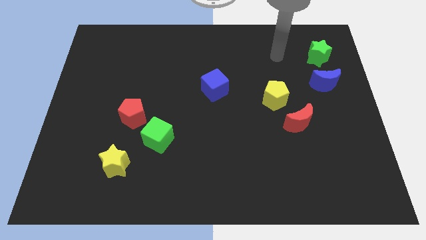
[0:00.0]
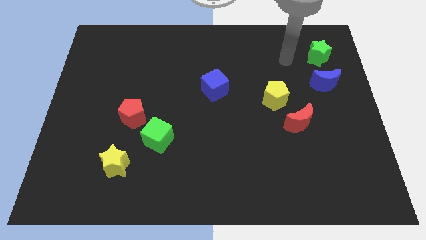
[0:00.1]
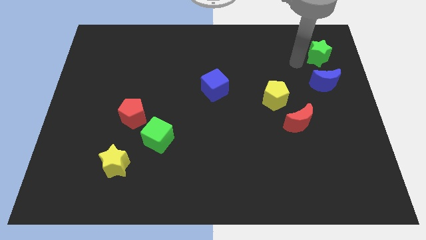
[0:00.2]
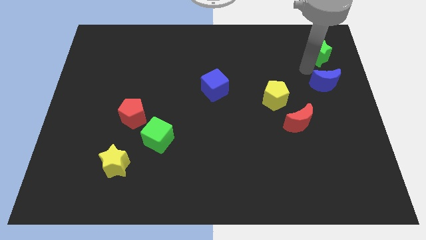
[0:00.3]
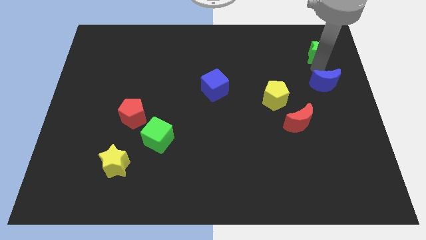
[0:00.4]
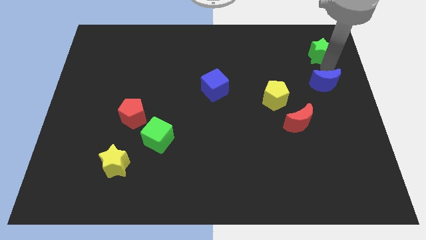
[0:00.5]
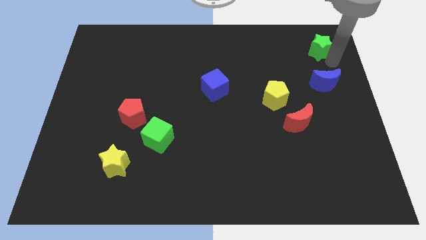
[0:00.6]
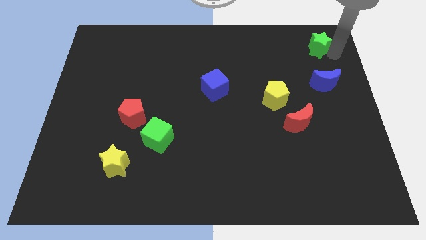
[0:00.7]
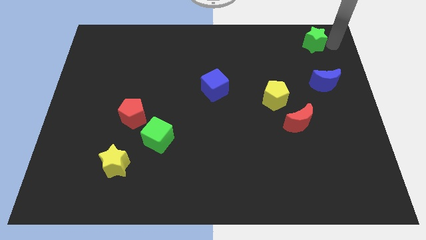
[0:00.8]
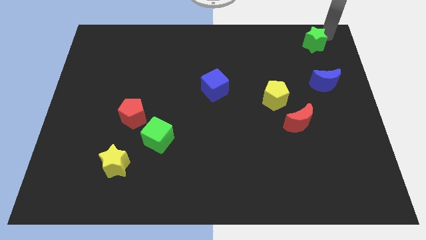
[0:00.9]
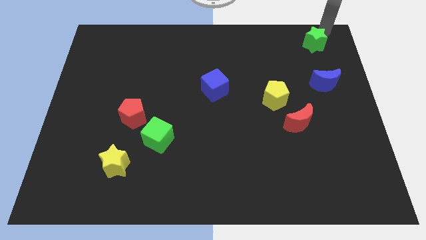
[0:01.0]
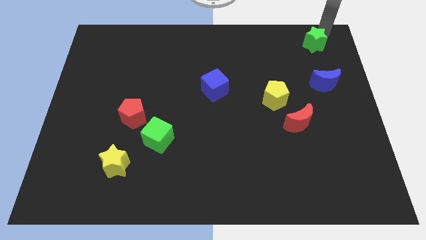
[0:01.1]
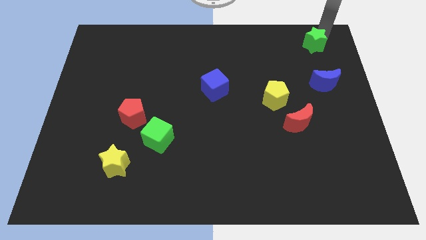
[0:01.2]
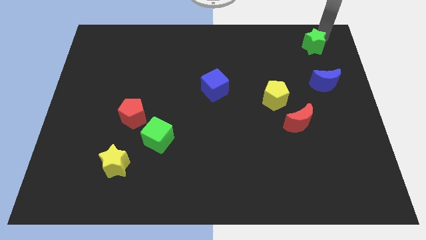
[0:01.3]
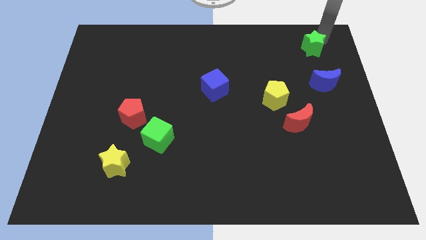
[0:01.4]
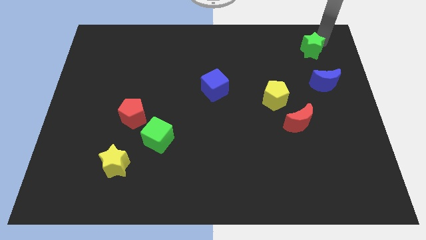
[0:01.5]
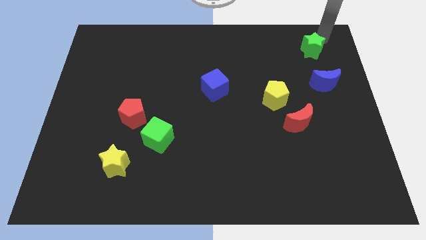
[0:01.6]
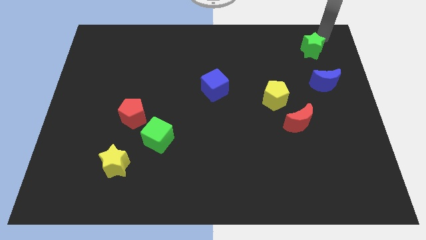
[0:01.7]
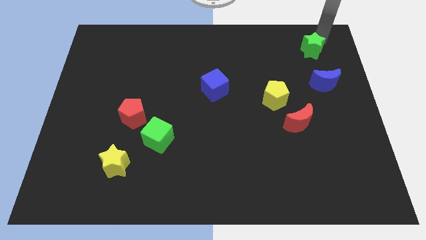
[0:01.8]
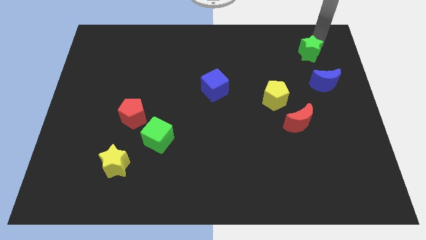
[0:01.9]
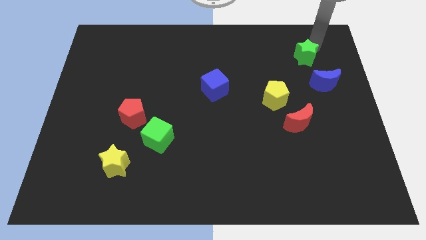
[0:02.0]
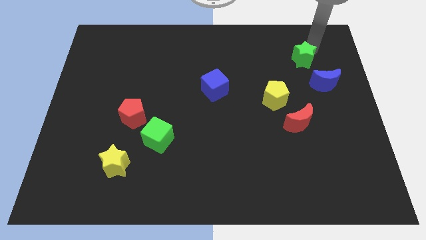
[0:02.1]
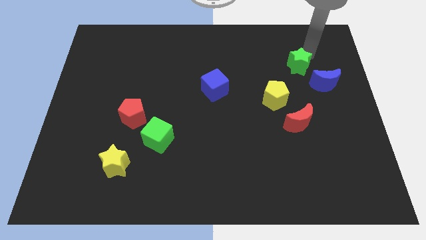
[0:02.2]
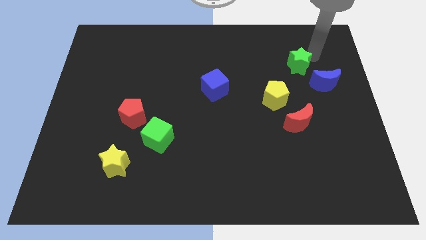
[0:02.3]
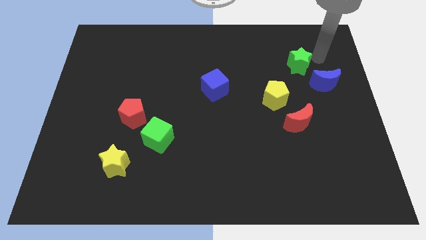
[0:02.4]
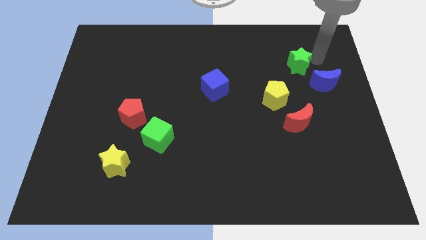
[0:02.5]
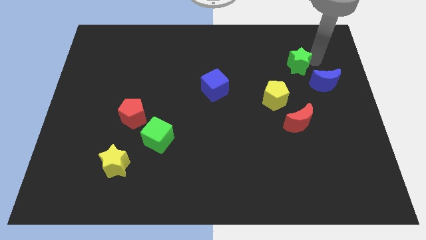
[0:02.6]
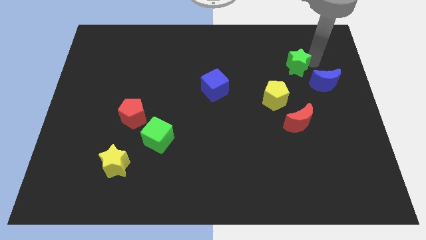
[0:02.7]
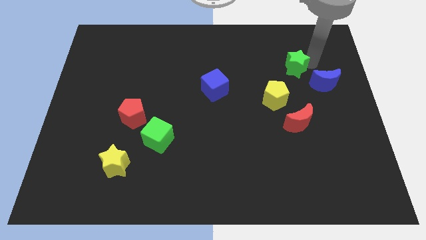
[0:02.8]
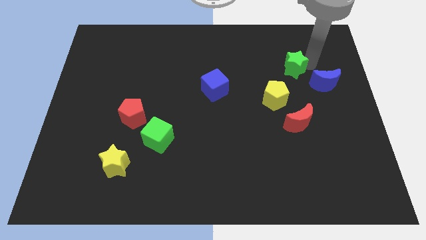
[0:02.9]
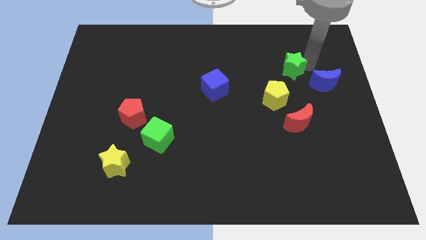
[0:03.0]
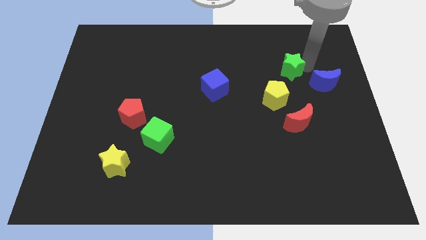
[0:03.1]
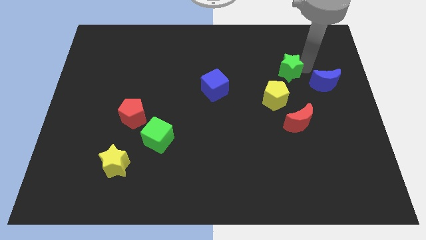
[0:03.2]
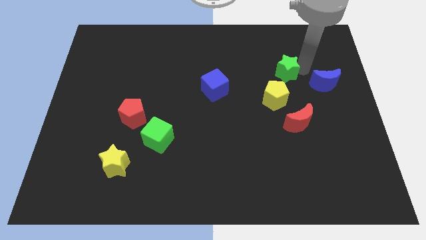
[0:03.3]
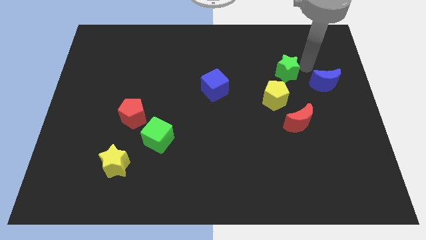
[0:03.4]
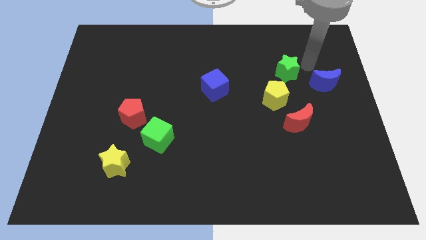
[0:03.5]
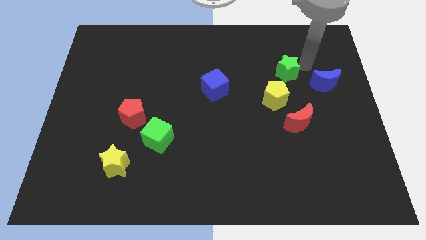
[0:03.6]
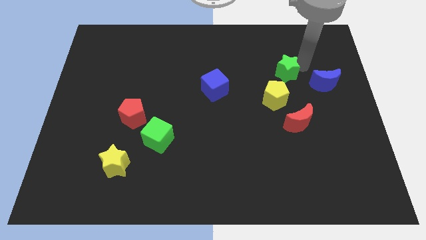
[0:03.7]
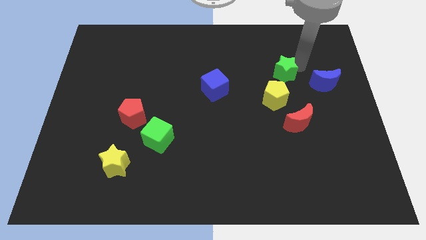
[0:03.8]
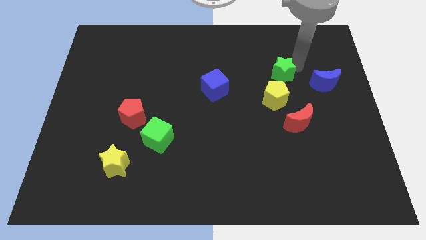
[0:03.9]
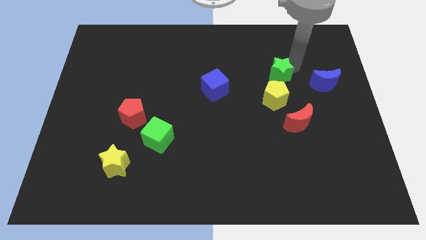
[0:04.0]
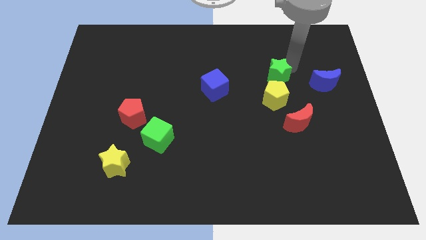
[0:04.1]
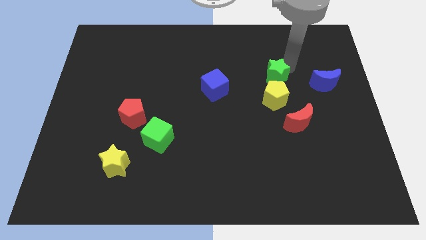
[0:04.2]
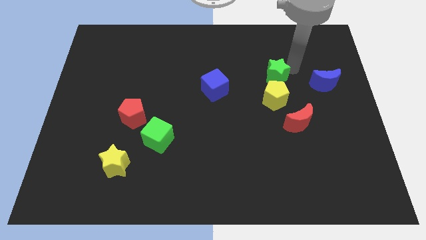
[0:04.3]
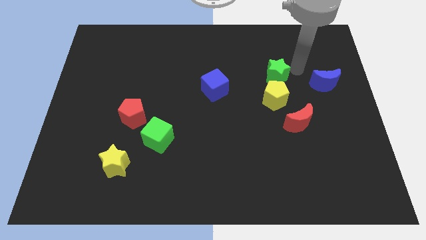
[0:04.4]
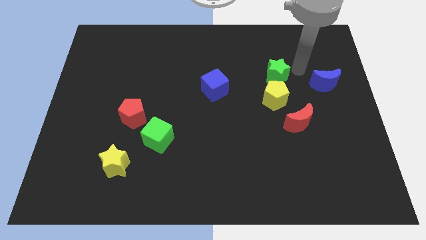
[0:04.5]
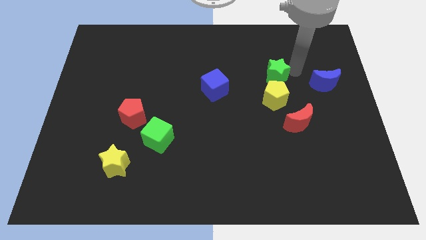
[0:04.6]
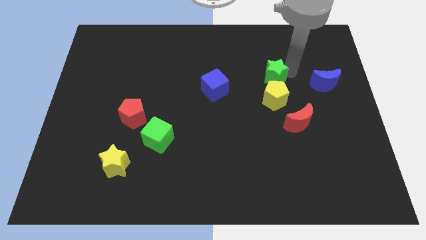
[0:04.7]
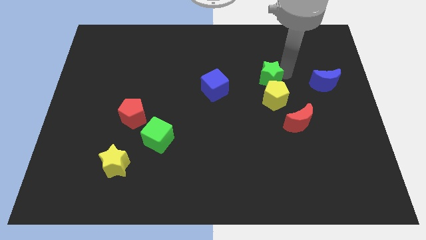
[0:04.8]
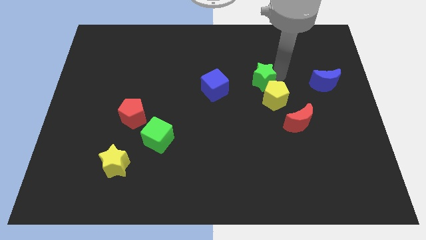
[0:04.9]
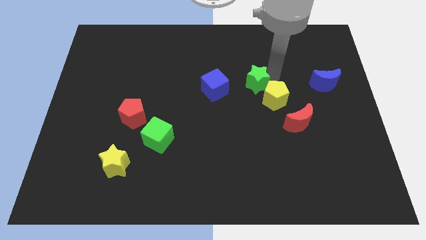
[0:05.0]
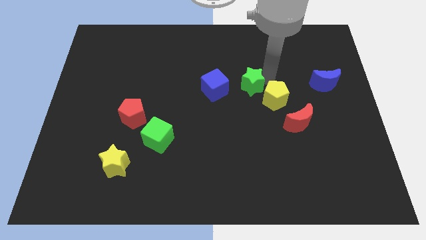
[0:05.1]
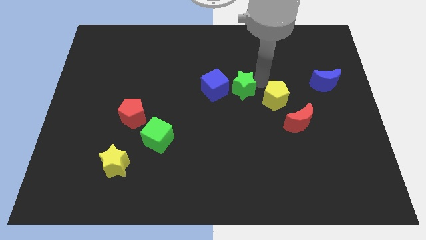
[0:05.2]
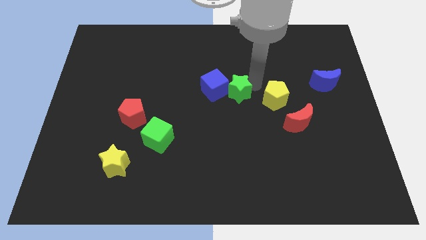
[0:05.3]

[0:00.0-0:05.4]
push the green star close to the blue cube

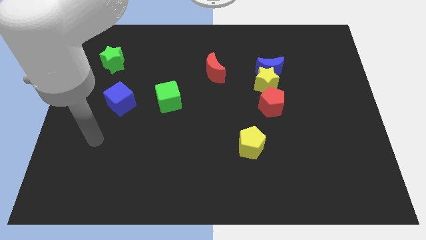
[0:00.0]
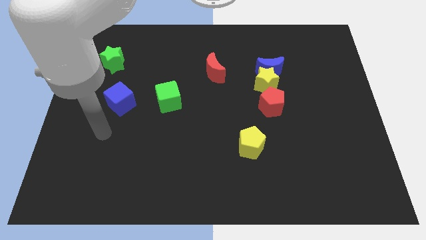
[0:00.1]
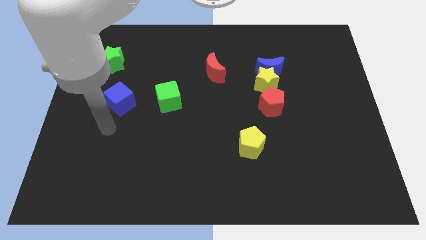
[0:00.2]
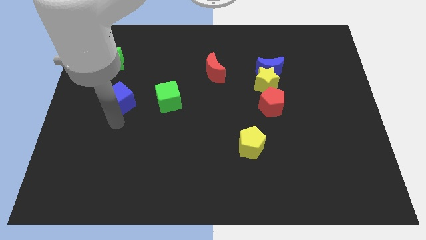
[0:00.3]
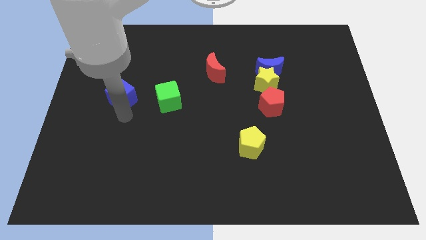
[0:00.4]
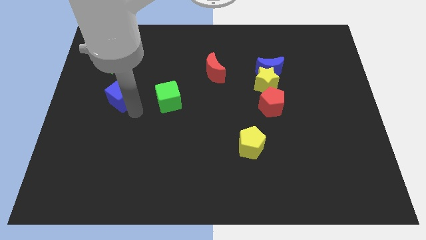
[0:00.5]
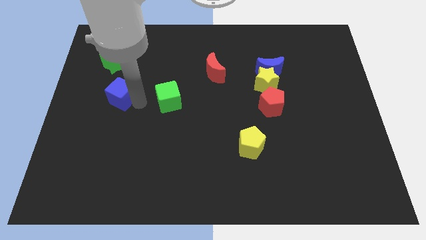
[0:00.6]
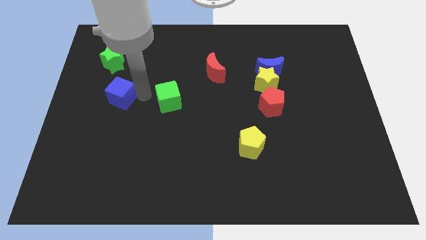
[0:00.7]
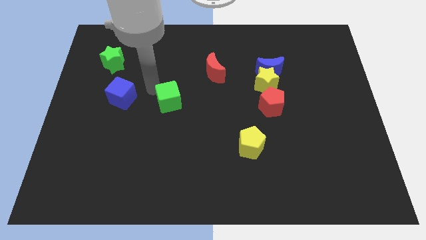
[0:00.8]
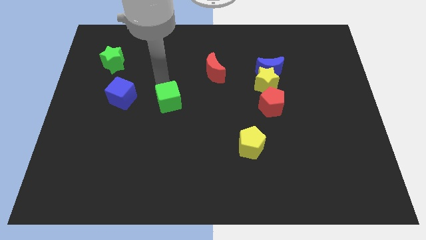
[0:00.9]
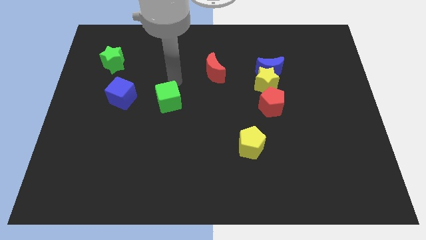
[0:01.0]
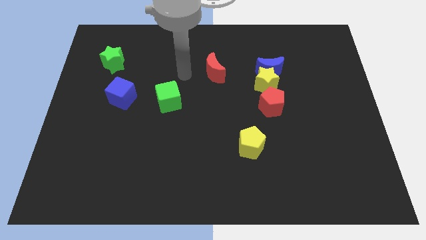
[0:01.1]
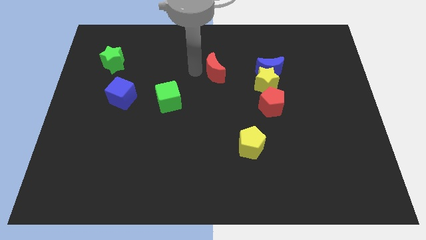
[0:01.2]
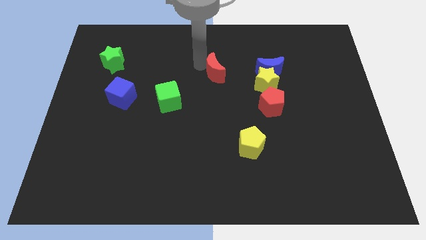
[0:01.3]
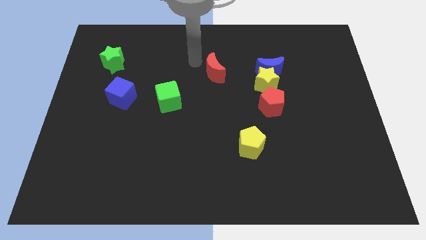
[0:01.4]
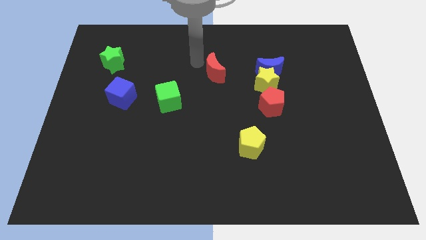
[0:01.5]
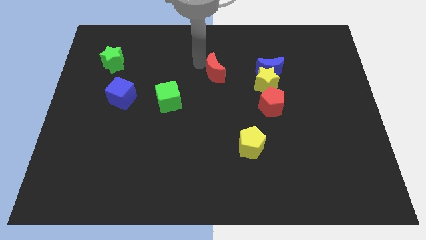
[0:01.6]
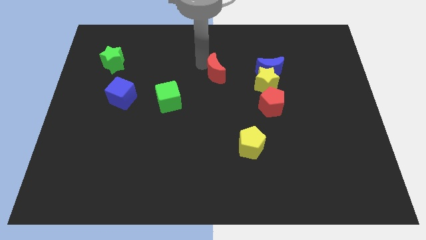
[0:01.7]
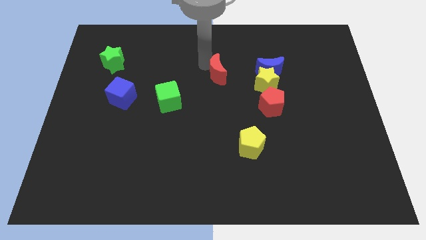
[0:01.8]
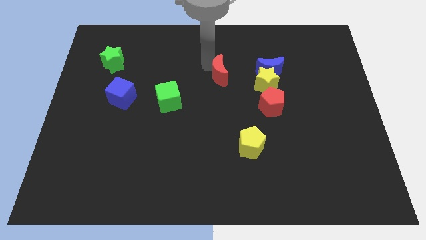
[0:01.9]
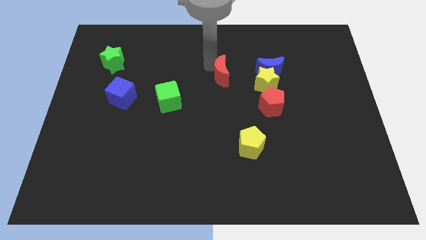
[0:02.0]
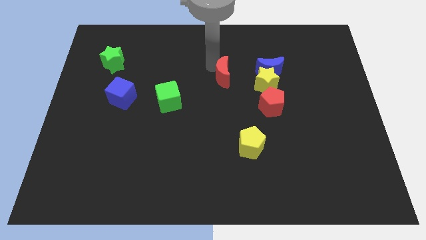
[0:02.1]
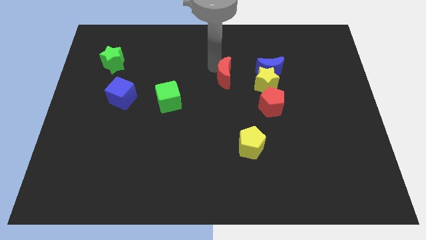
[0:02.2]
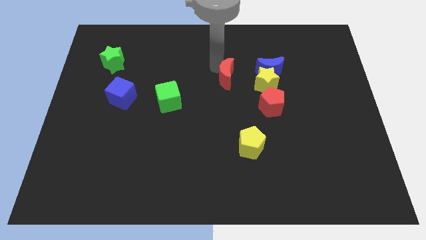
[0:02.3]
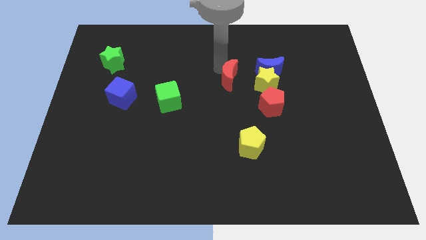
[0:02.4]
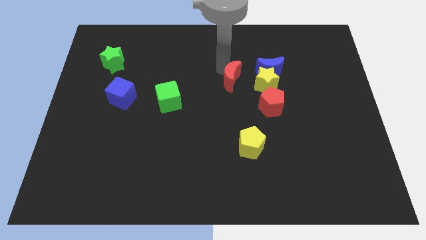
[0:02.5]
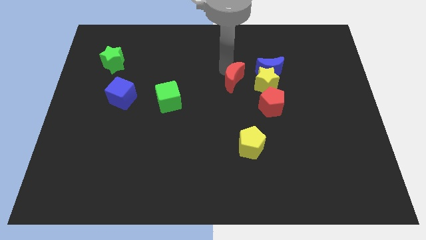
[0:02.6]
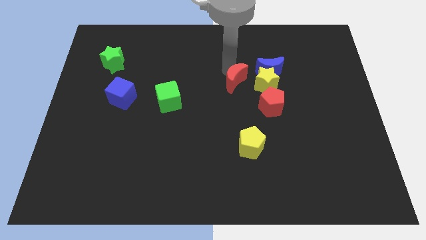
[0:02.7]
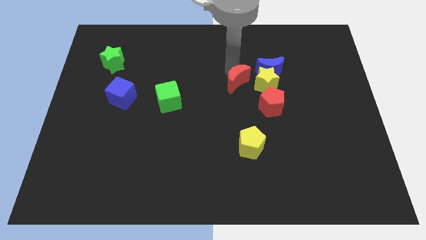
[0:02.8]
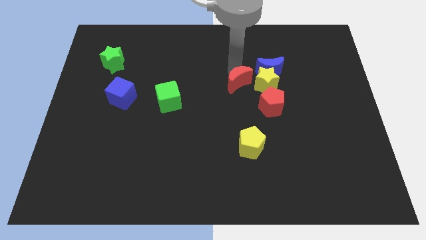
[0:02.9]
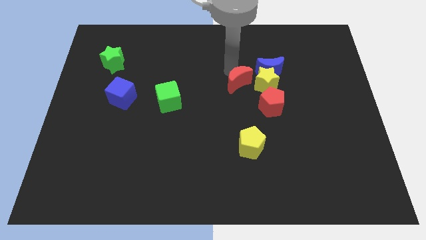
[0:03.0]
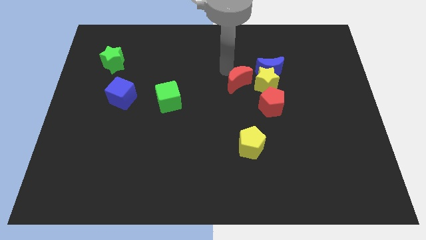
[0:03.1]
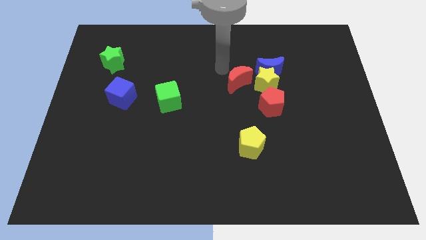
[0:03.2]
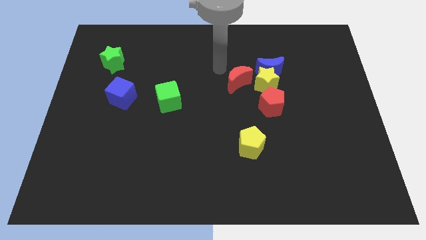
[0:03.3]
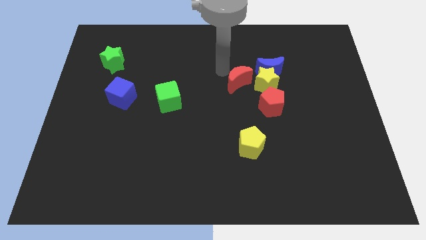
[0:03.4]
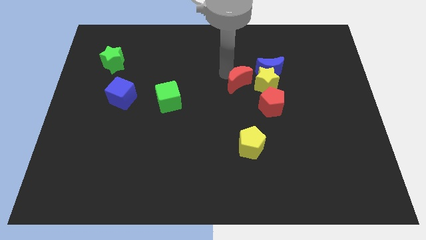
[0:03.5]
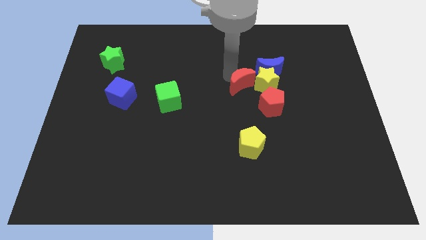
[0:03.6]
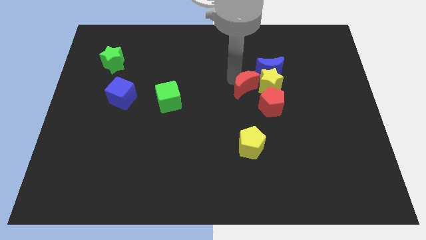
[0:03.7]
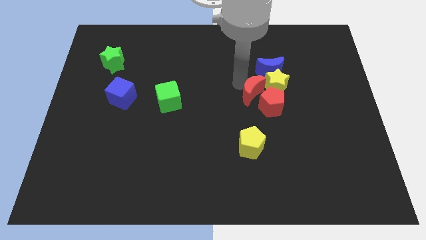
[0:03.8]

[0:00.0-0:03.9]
put the red moon close to the red pentagon
